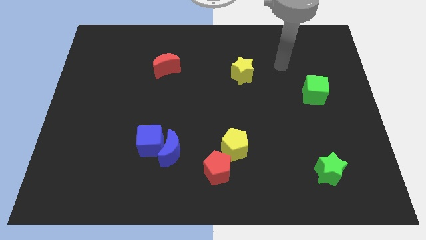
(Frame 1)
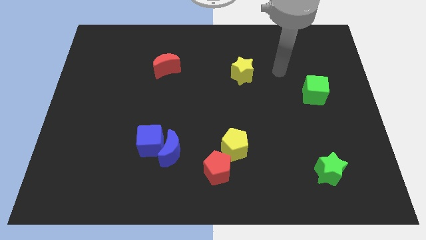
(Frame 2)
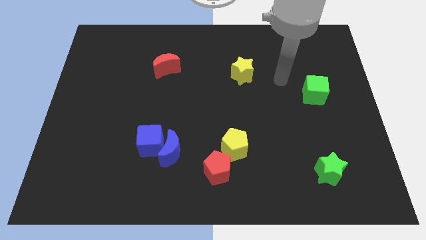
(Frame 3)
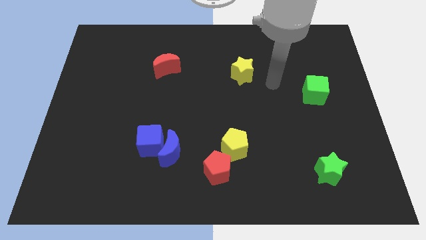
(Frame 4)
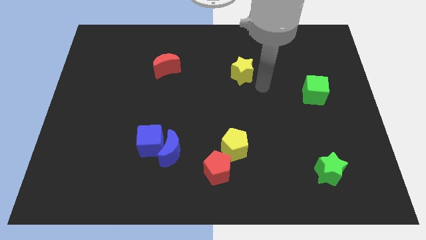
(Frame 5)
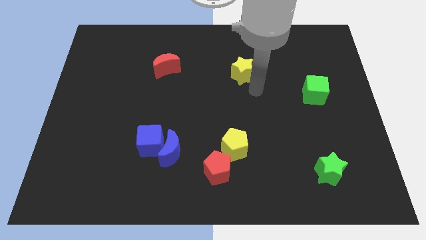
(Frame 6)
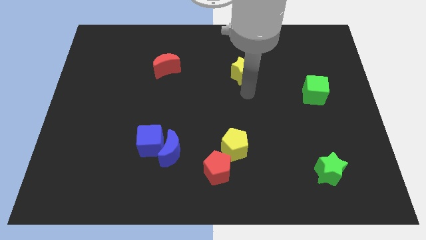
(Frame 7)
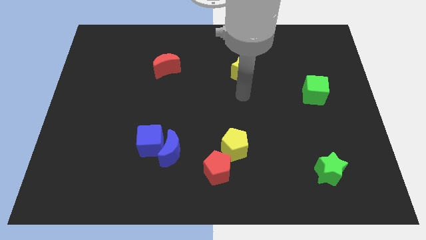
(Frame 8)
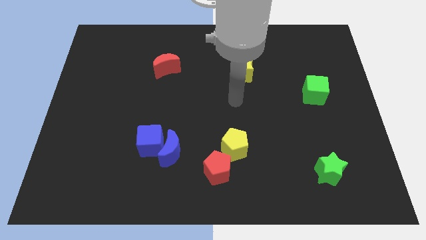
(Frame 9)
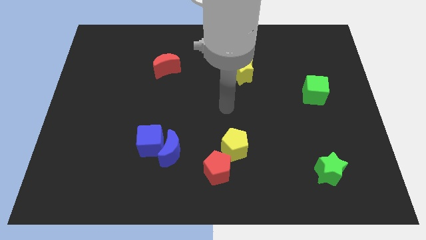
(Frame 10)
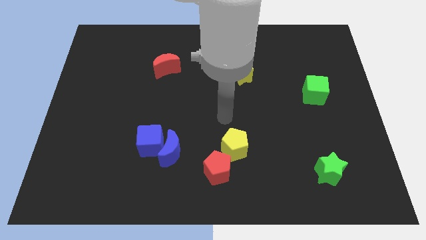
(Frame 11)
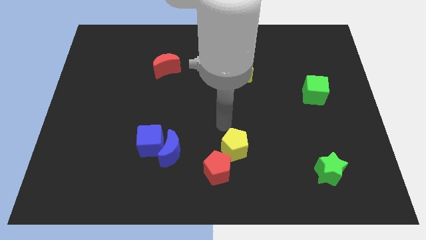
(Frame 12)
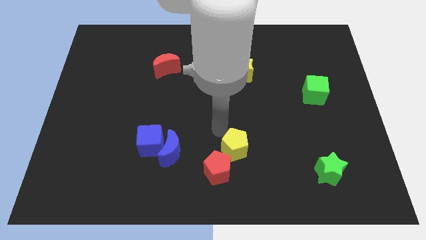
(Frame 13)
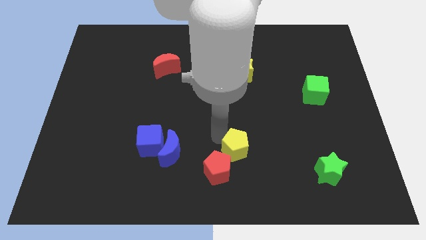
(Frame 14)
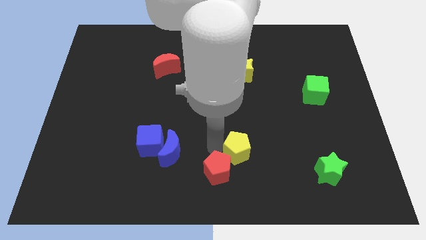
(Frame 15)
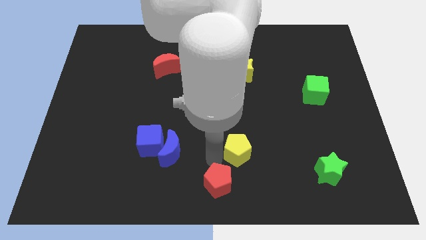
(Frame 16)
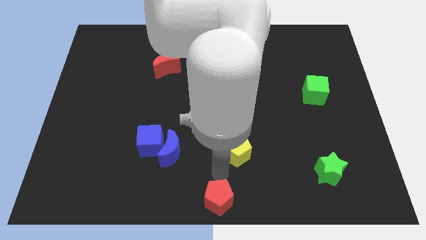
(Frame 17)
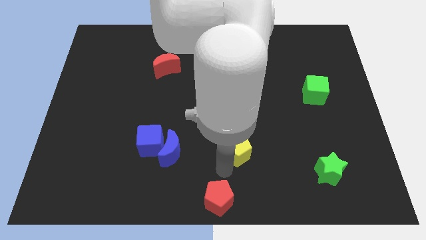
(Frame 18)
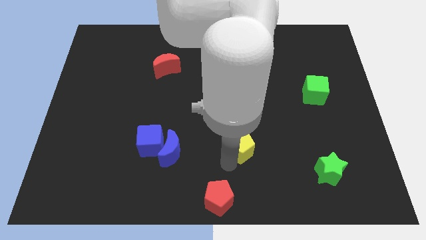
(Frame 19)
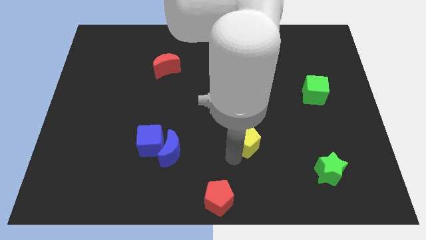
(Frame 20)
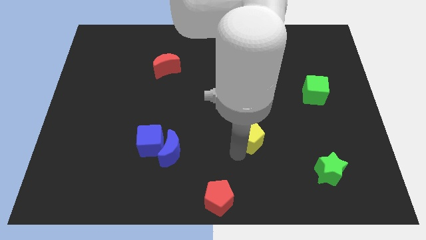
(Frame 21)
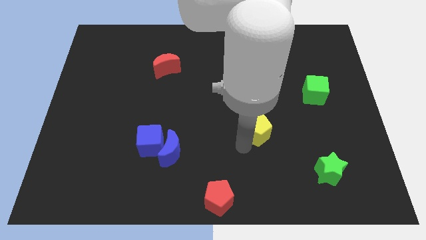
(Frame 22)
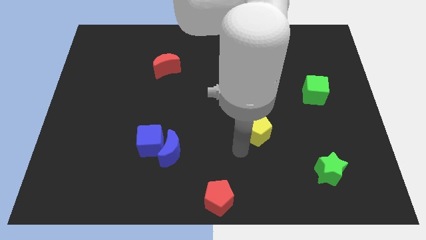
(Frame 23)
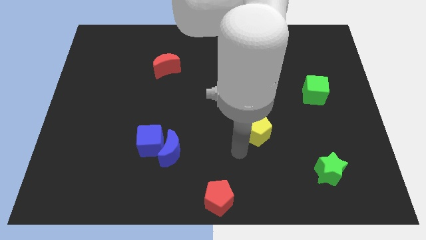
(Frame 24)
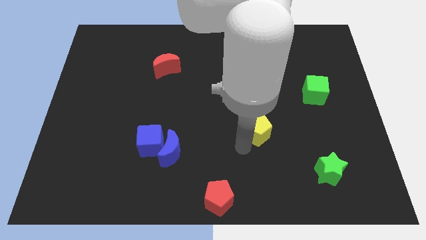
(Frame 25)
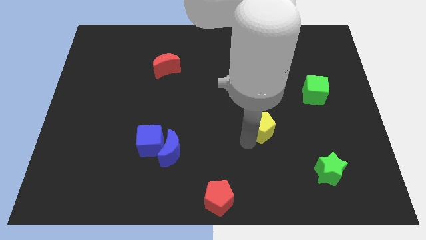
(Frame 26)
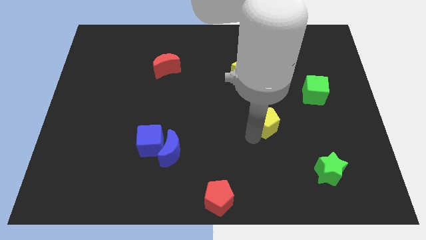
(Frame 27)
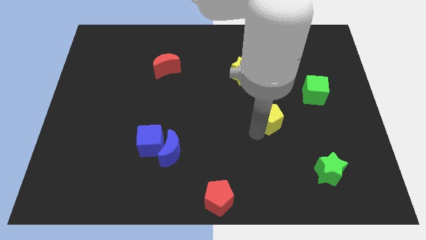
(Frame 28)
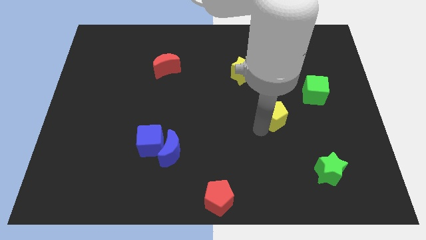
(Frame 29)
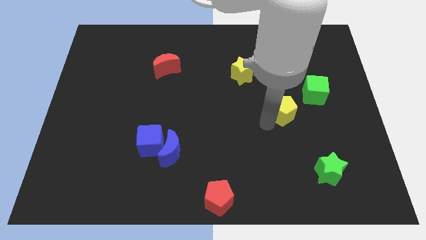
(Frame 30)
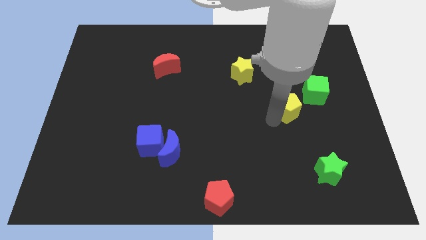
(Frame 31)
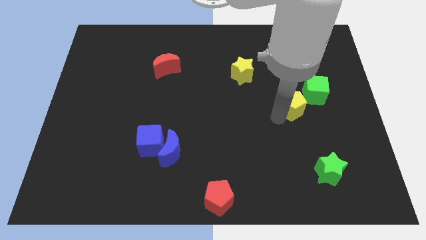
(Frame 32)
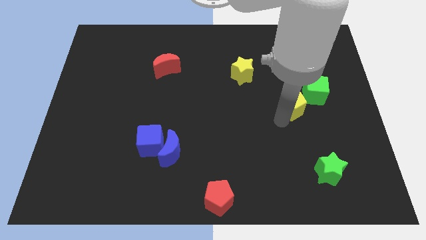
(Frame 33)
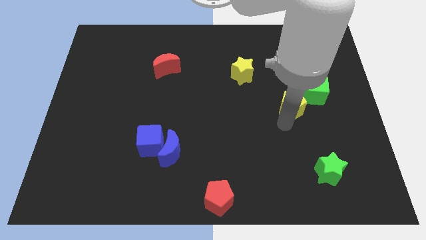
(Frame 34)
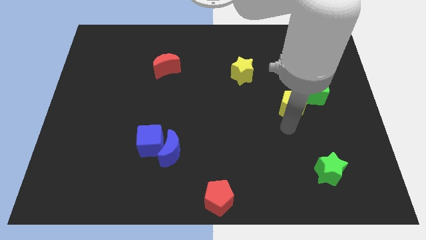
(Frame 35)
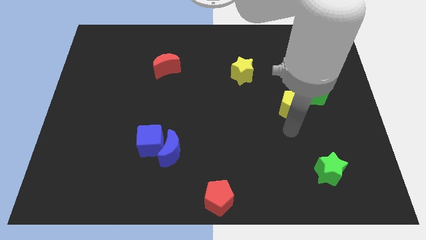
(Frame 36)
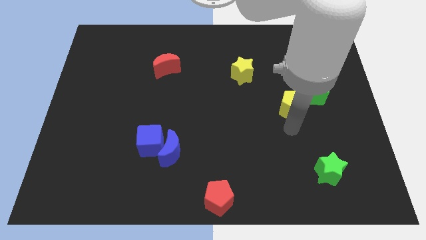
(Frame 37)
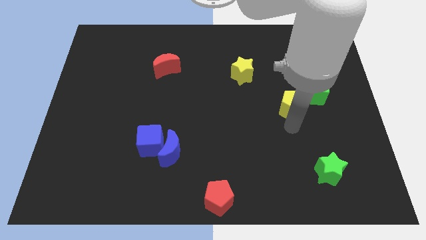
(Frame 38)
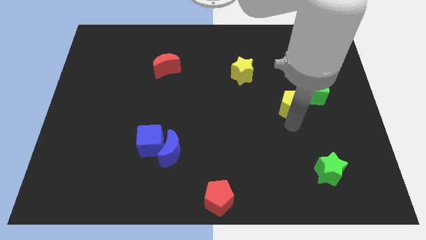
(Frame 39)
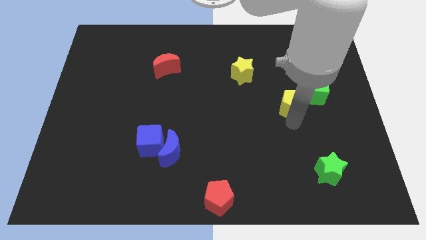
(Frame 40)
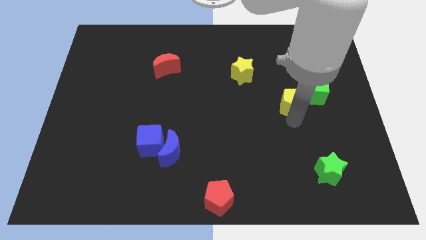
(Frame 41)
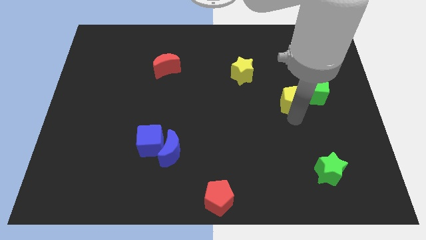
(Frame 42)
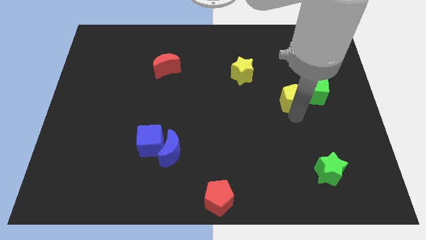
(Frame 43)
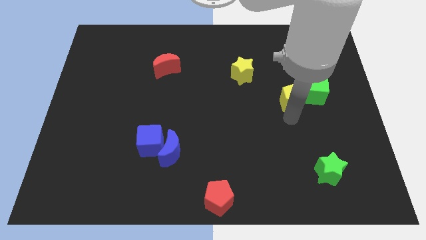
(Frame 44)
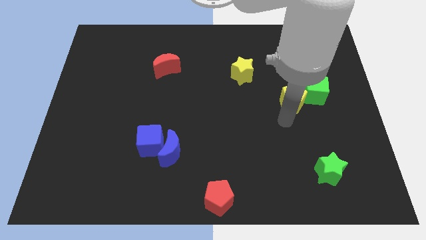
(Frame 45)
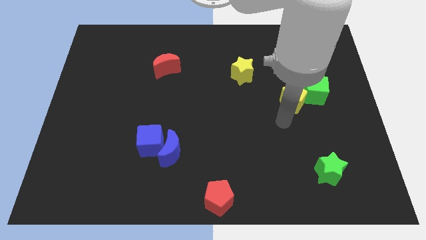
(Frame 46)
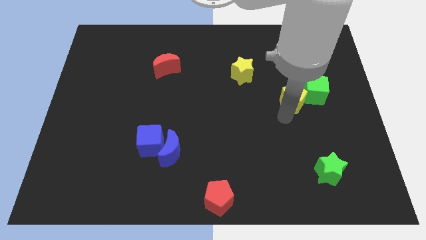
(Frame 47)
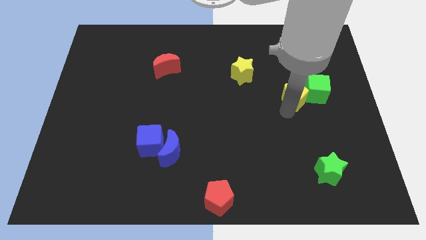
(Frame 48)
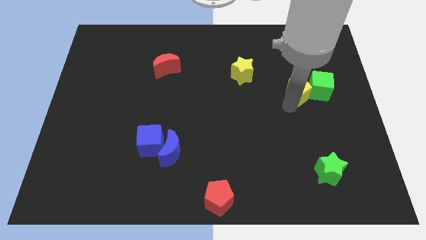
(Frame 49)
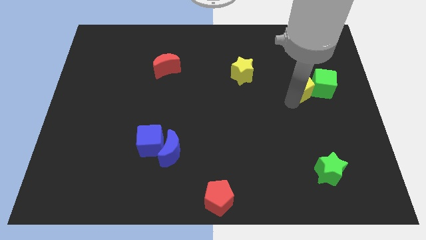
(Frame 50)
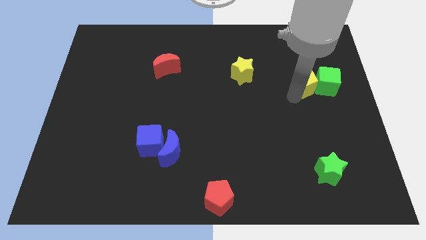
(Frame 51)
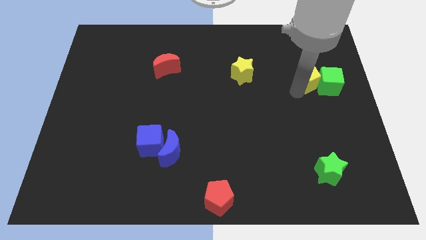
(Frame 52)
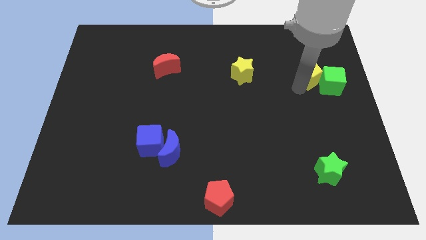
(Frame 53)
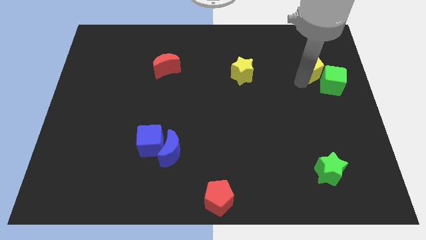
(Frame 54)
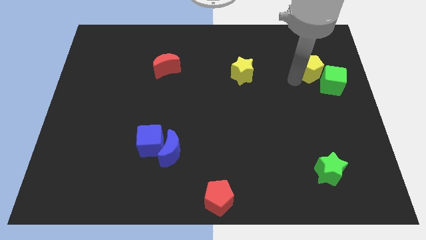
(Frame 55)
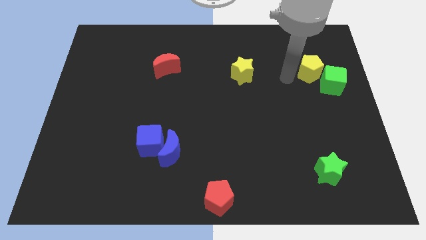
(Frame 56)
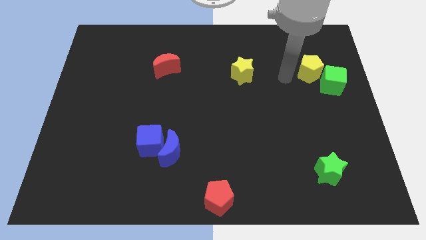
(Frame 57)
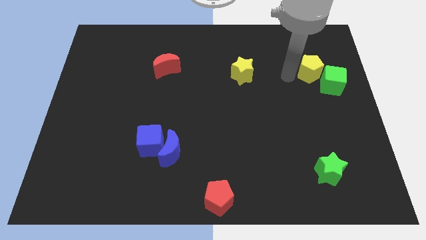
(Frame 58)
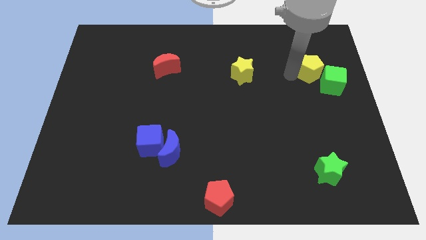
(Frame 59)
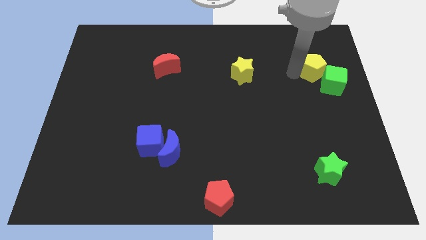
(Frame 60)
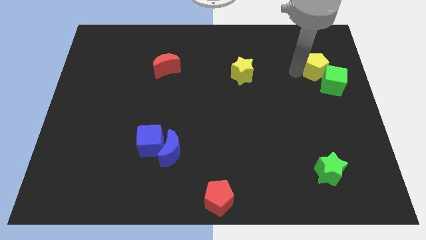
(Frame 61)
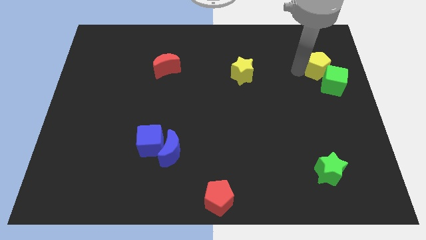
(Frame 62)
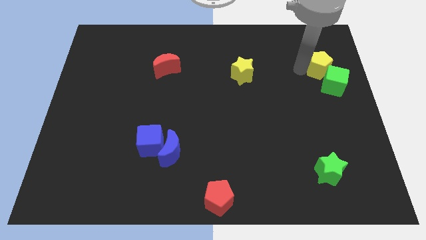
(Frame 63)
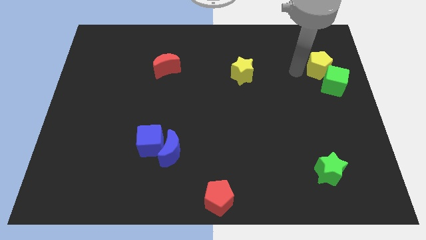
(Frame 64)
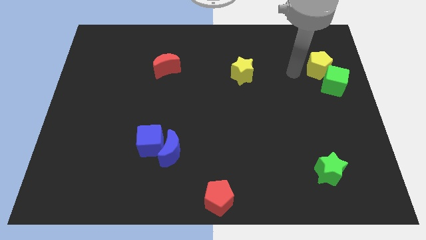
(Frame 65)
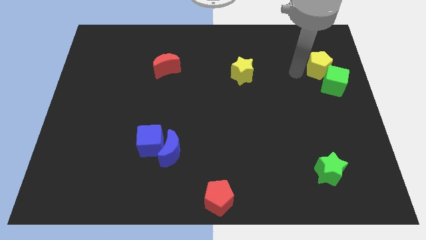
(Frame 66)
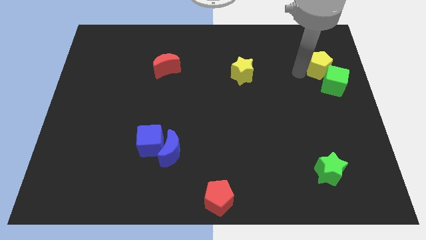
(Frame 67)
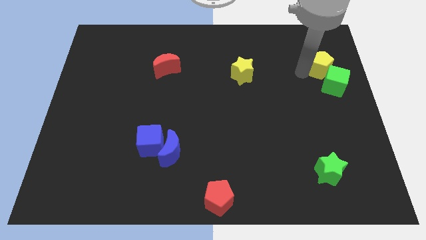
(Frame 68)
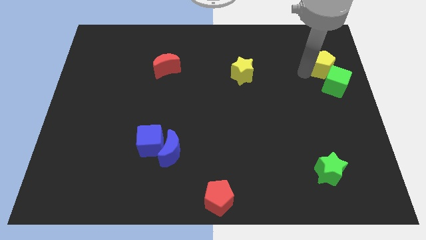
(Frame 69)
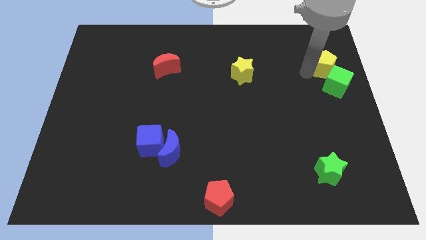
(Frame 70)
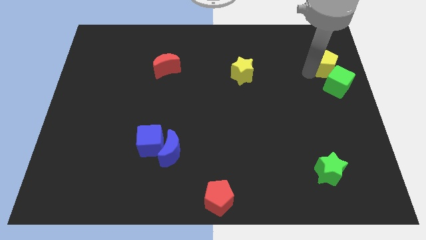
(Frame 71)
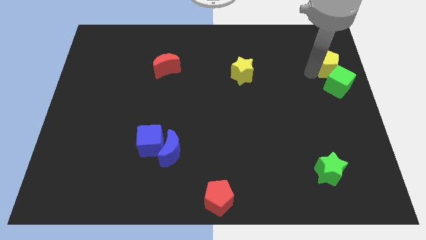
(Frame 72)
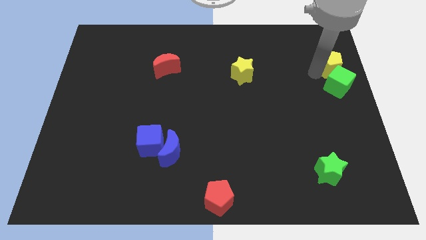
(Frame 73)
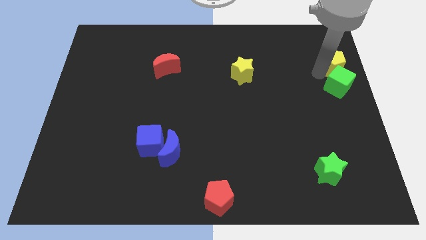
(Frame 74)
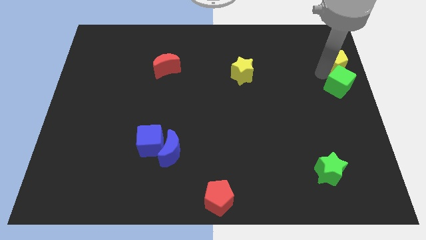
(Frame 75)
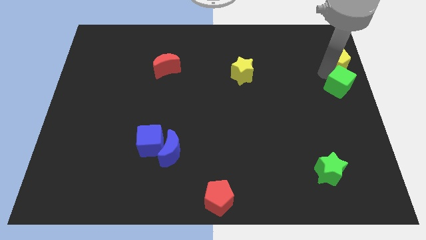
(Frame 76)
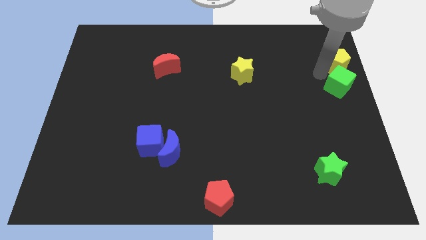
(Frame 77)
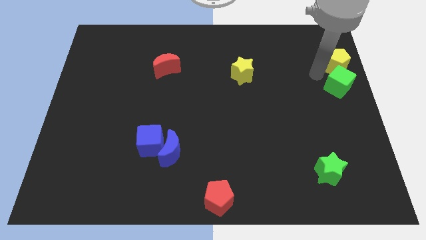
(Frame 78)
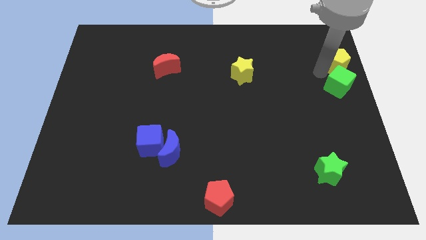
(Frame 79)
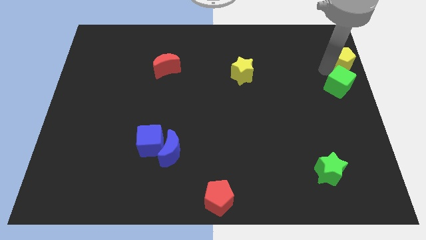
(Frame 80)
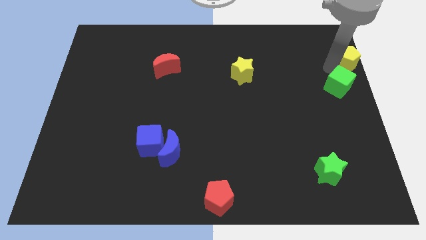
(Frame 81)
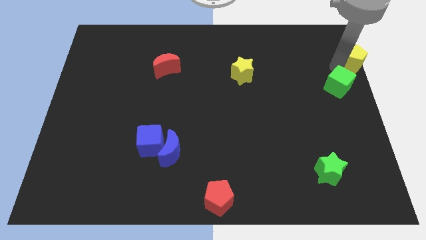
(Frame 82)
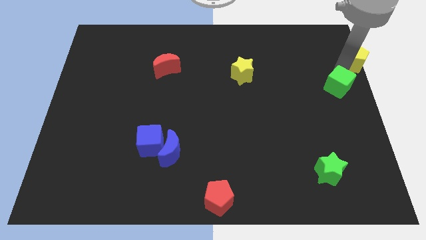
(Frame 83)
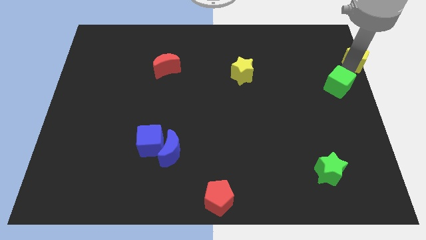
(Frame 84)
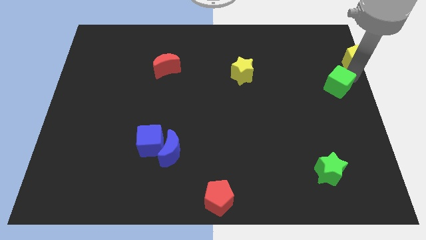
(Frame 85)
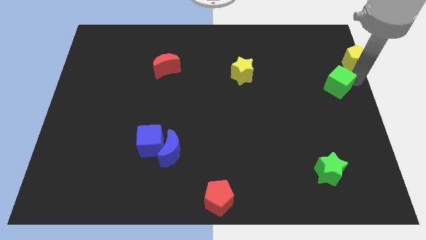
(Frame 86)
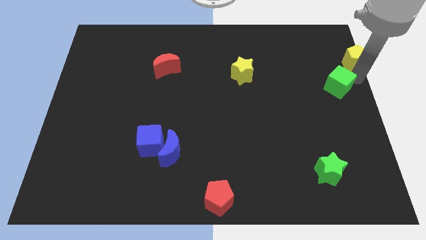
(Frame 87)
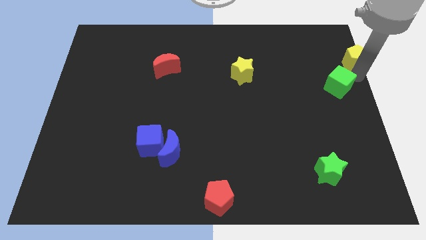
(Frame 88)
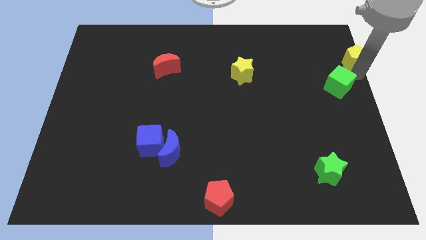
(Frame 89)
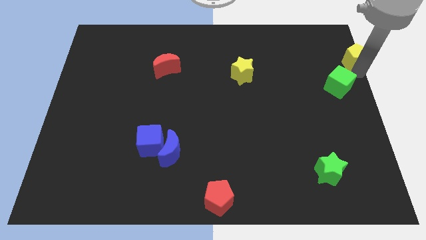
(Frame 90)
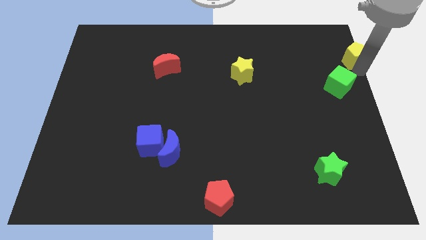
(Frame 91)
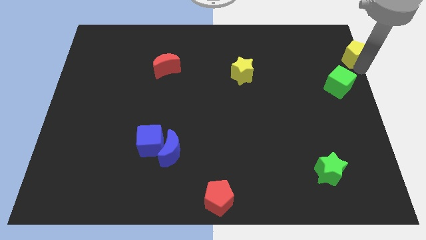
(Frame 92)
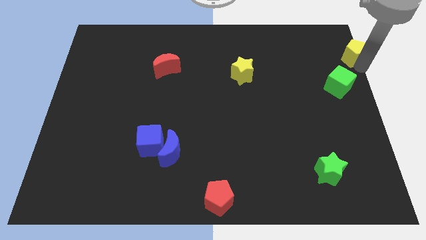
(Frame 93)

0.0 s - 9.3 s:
slide the yellow pentagon to the upper right corner
